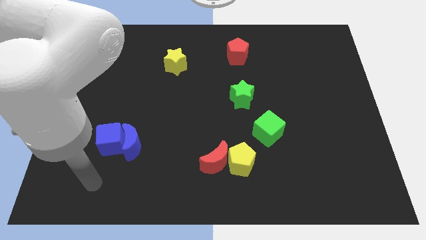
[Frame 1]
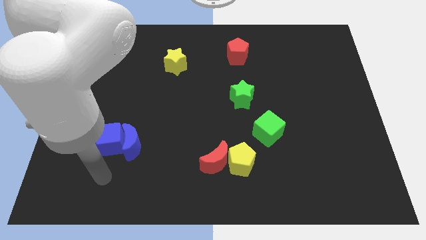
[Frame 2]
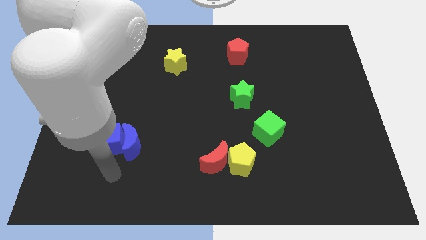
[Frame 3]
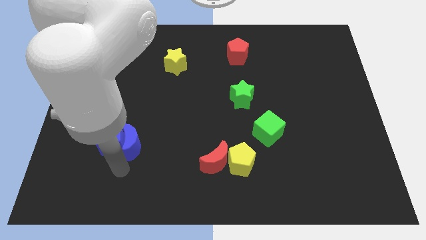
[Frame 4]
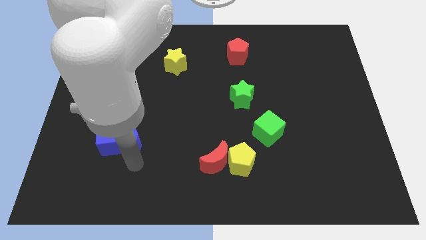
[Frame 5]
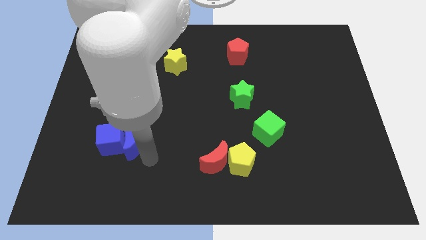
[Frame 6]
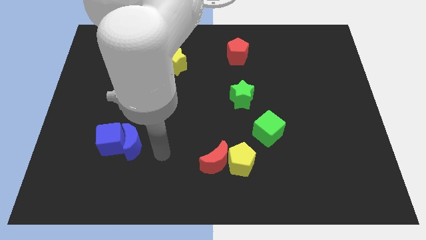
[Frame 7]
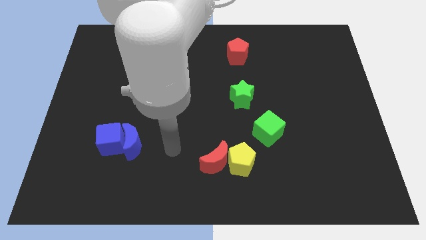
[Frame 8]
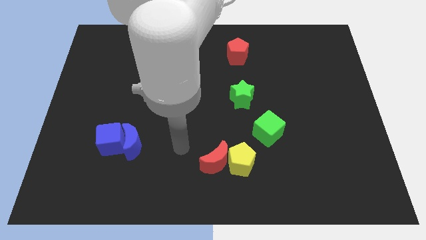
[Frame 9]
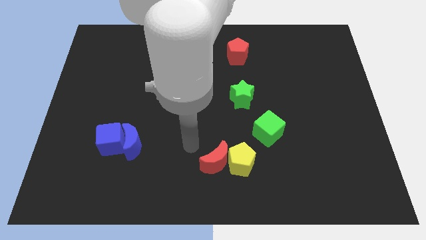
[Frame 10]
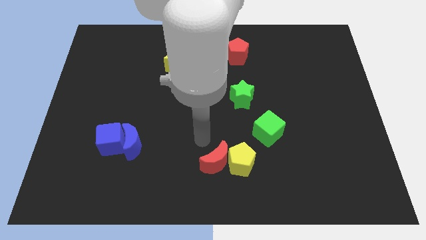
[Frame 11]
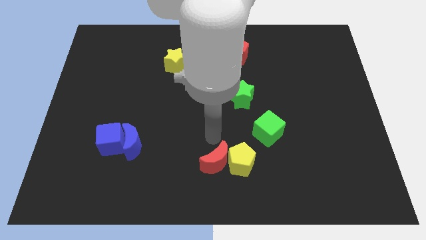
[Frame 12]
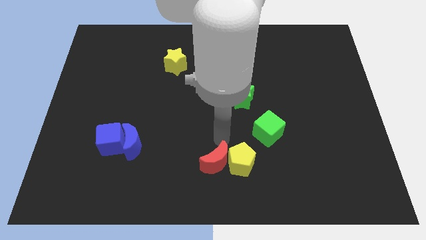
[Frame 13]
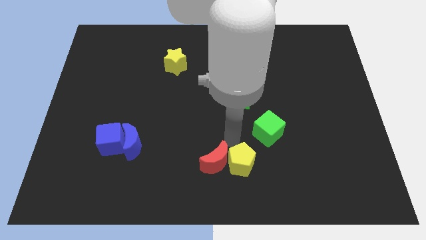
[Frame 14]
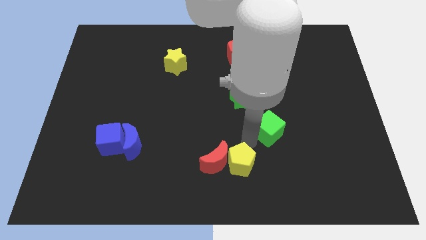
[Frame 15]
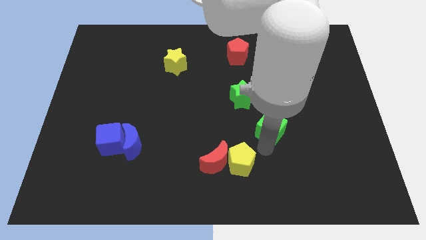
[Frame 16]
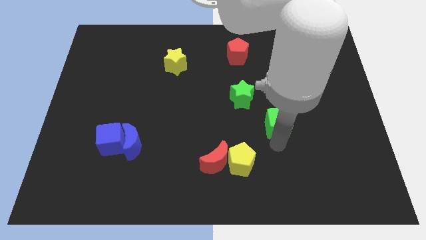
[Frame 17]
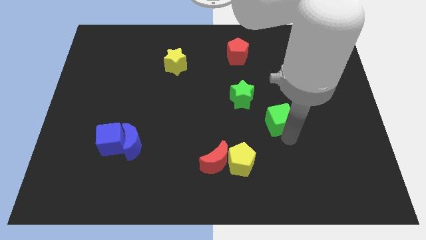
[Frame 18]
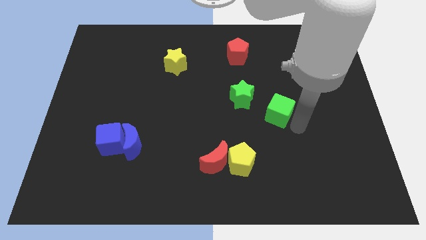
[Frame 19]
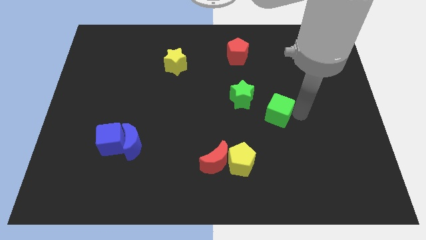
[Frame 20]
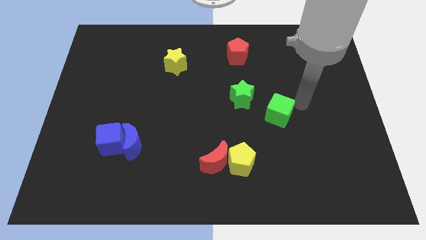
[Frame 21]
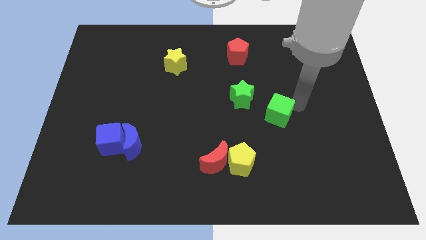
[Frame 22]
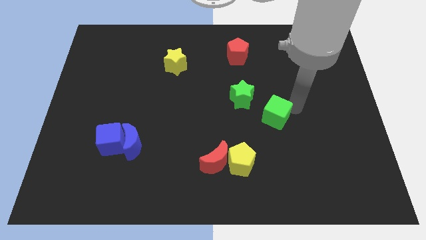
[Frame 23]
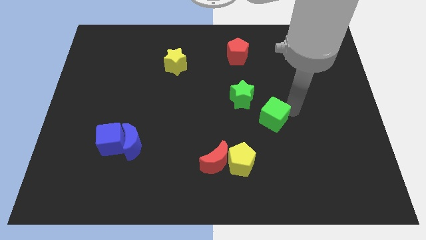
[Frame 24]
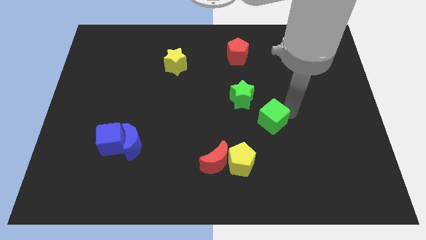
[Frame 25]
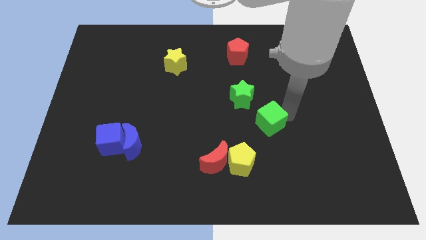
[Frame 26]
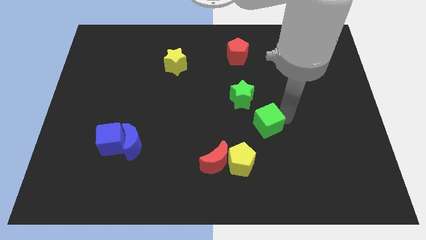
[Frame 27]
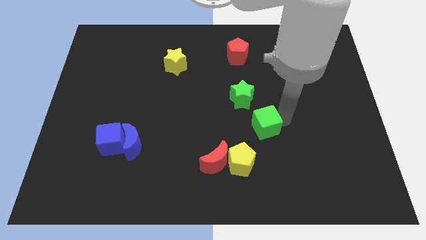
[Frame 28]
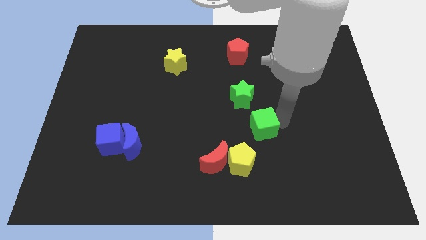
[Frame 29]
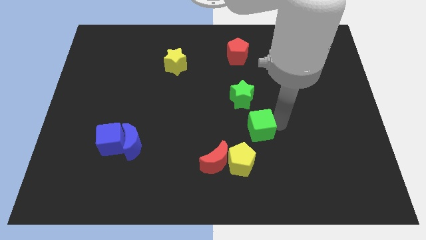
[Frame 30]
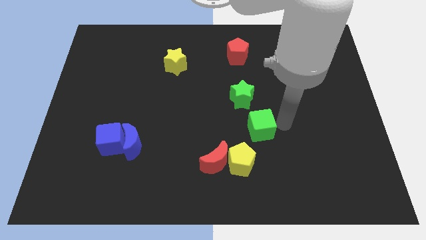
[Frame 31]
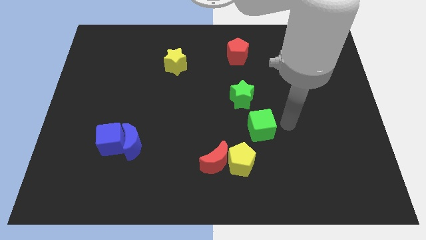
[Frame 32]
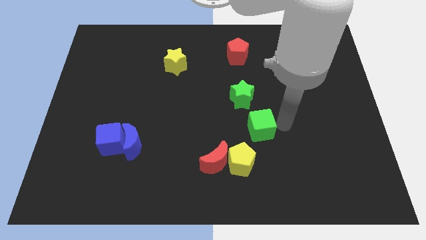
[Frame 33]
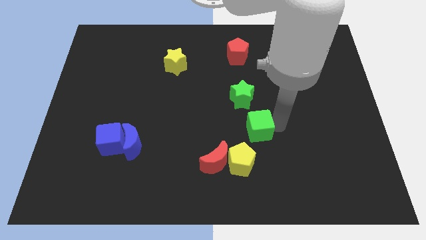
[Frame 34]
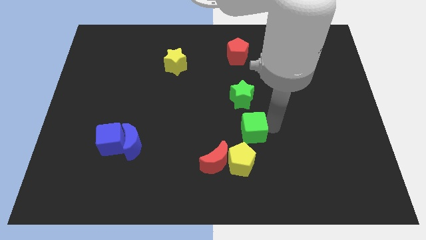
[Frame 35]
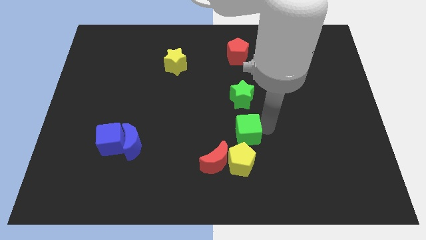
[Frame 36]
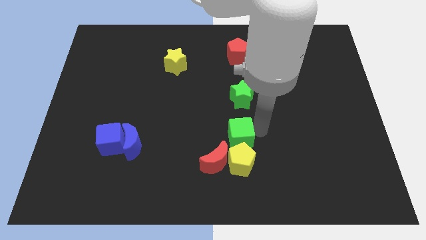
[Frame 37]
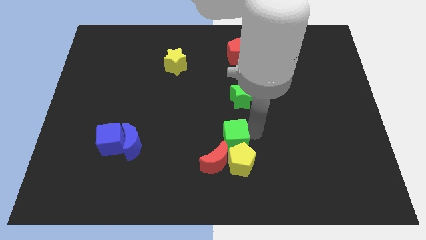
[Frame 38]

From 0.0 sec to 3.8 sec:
slightly move the green cube left

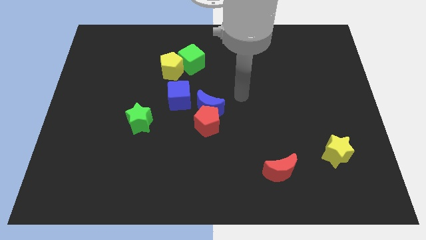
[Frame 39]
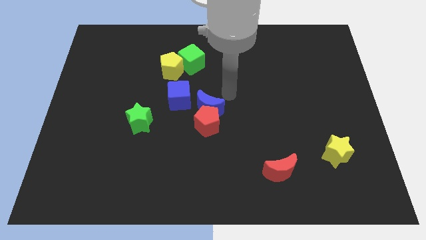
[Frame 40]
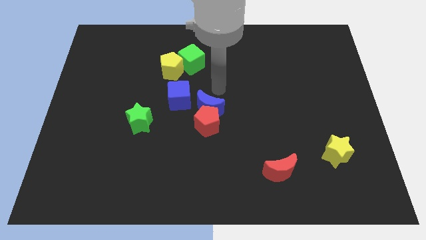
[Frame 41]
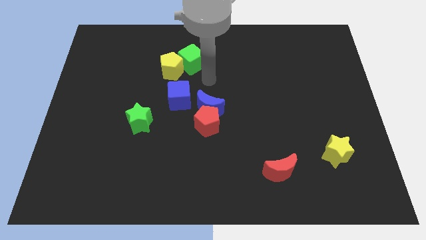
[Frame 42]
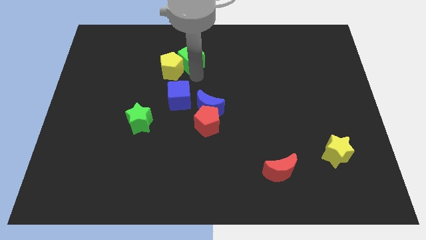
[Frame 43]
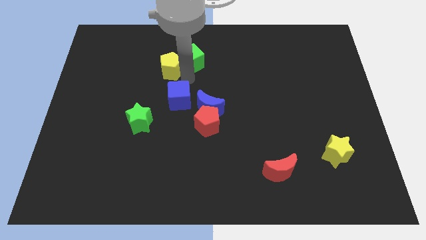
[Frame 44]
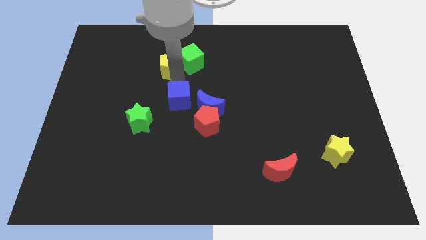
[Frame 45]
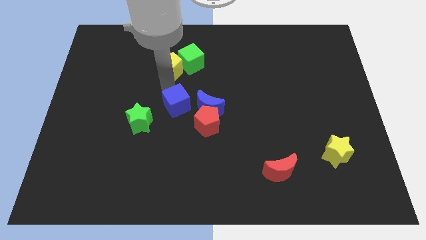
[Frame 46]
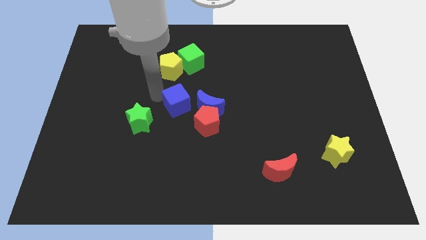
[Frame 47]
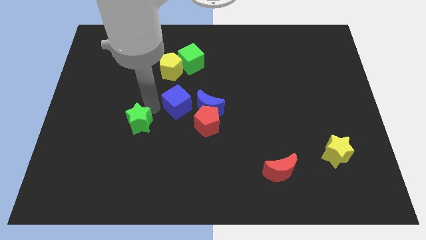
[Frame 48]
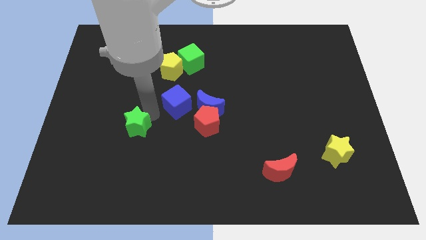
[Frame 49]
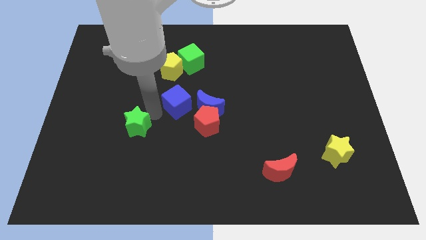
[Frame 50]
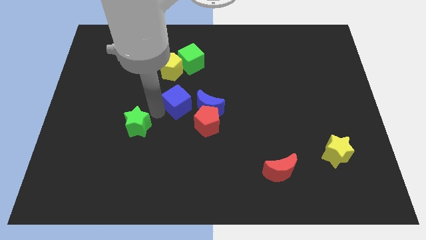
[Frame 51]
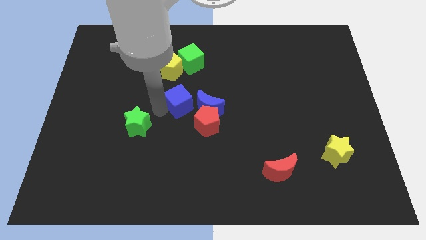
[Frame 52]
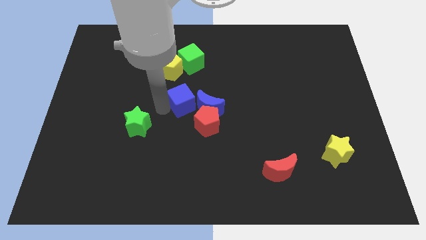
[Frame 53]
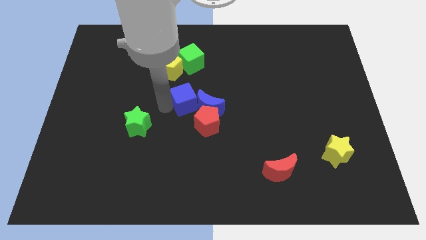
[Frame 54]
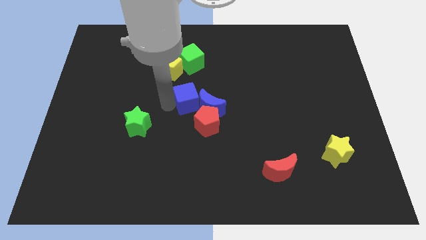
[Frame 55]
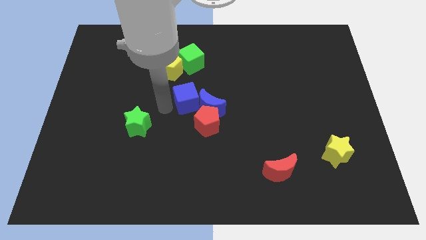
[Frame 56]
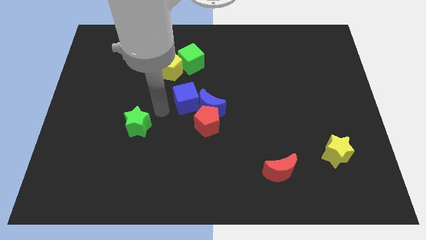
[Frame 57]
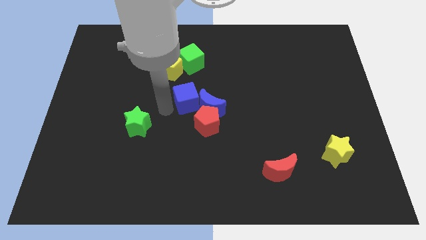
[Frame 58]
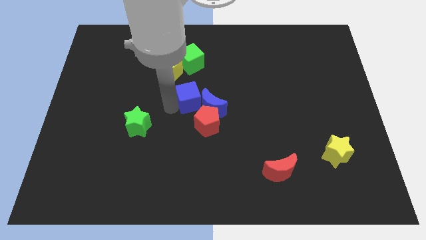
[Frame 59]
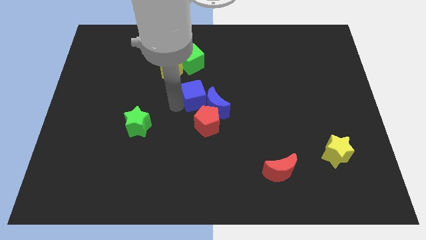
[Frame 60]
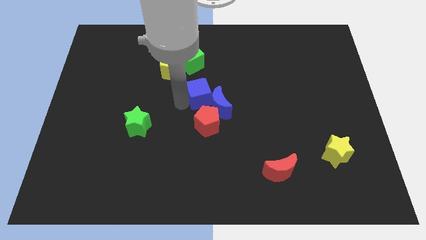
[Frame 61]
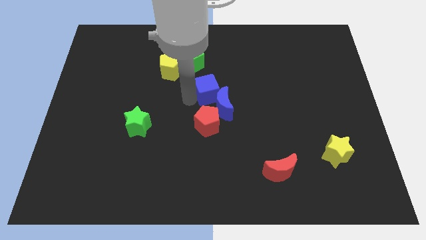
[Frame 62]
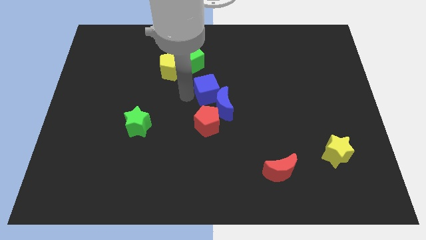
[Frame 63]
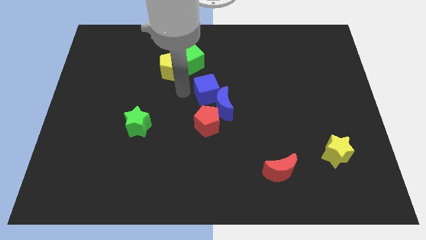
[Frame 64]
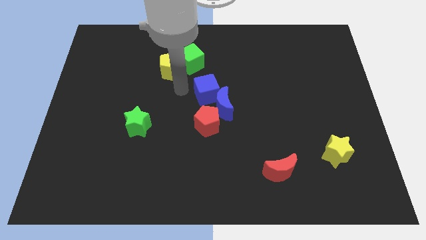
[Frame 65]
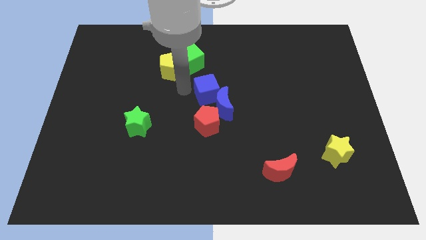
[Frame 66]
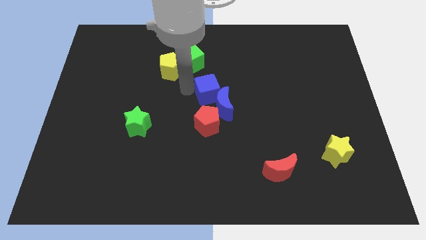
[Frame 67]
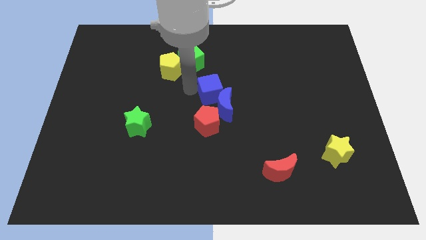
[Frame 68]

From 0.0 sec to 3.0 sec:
slightly push the blue cube right

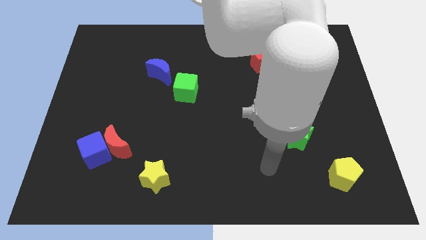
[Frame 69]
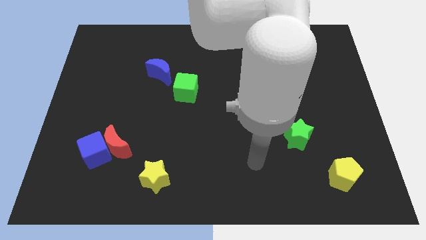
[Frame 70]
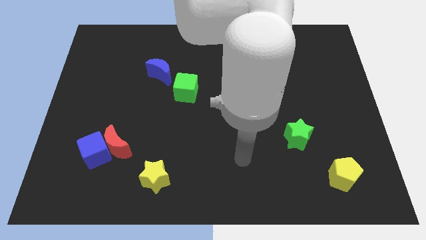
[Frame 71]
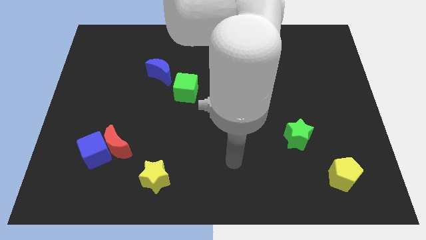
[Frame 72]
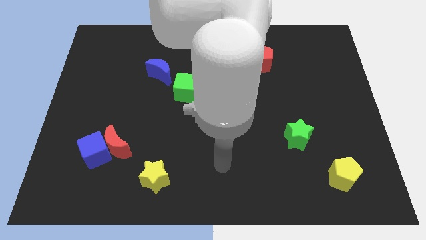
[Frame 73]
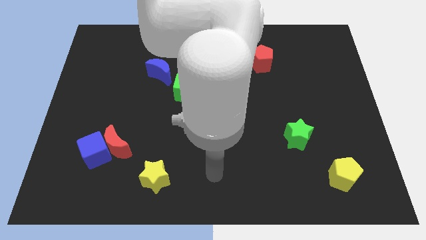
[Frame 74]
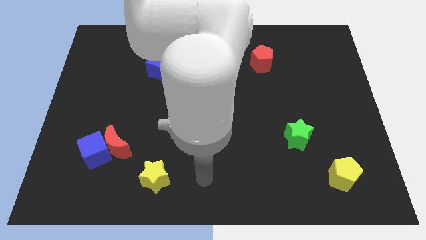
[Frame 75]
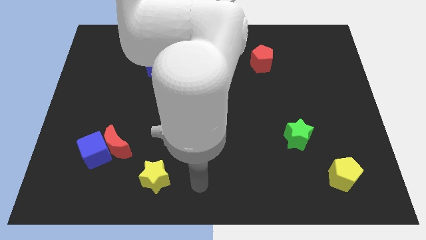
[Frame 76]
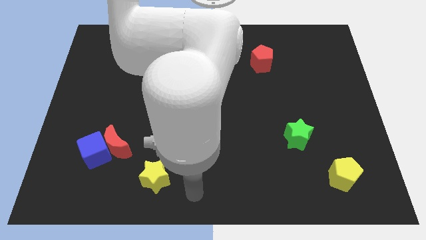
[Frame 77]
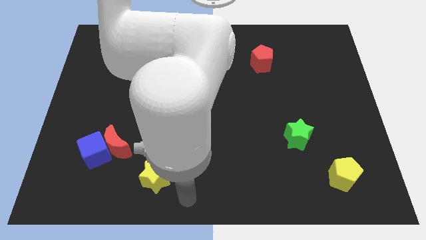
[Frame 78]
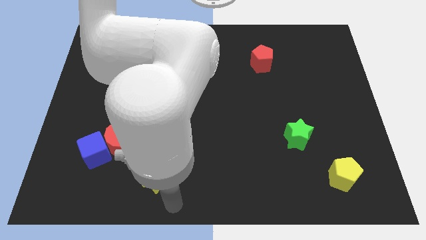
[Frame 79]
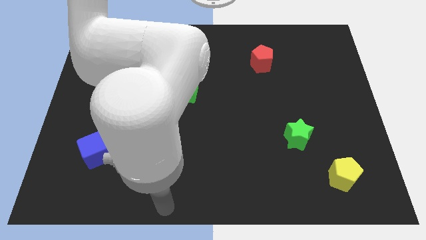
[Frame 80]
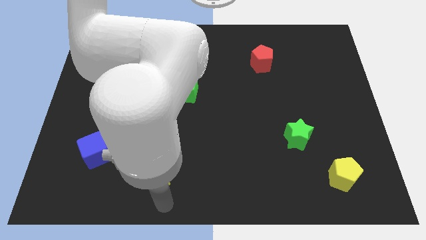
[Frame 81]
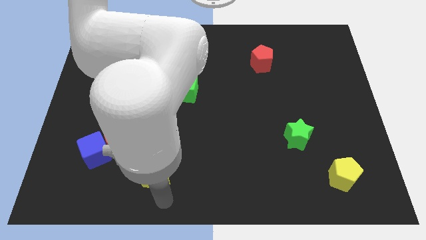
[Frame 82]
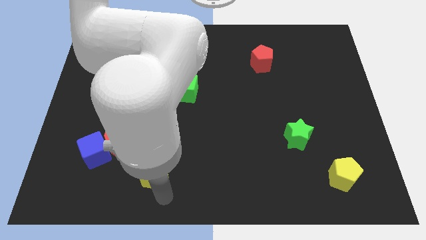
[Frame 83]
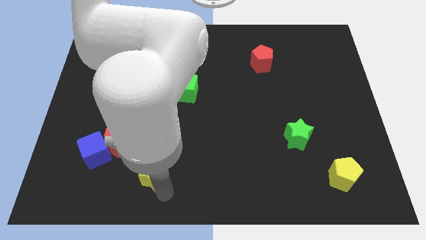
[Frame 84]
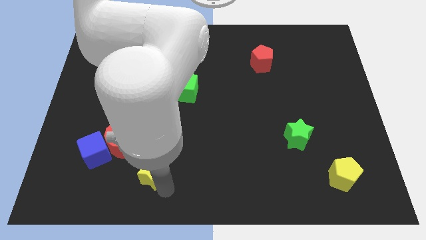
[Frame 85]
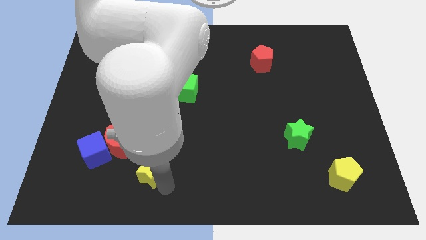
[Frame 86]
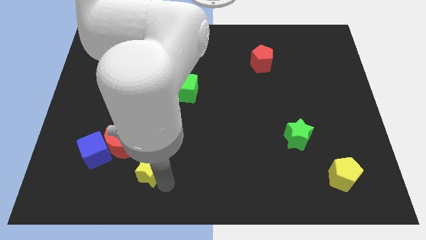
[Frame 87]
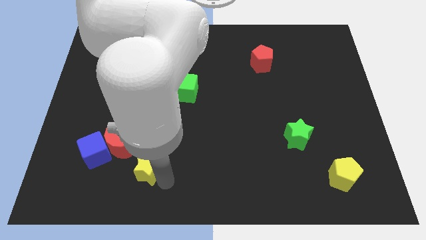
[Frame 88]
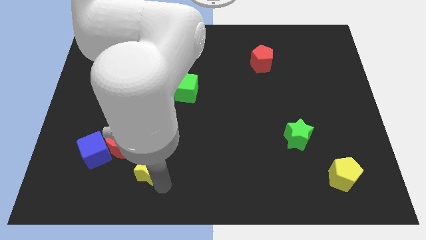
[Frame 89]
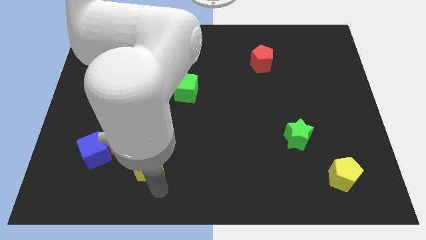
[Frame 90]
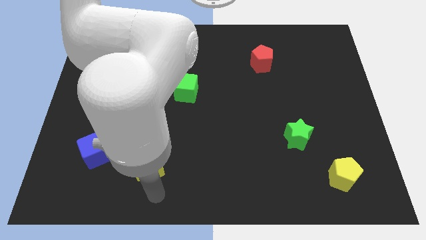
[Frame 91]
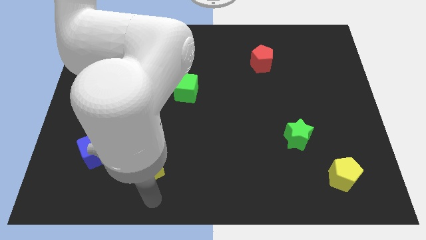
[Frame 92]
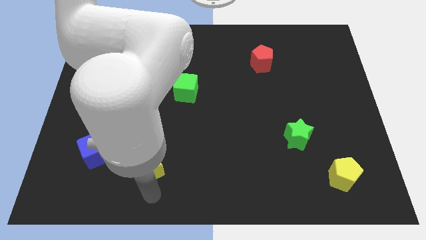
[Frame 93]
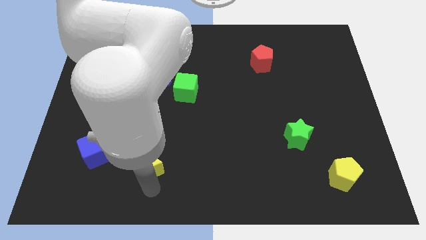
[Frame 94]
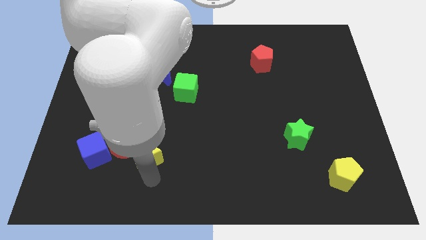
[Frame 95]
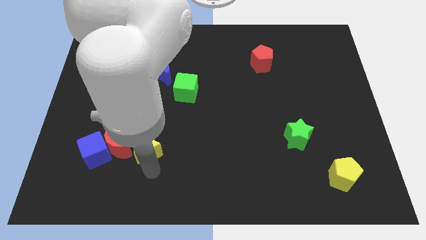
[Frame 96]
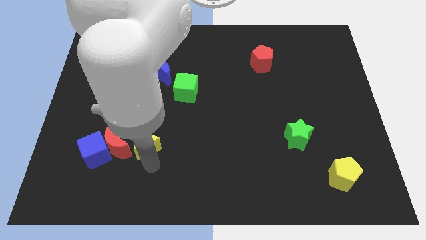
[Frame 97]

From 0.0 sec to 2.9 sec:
push the yellow star a little up and to the left diagonally
